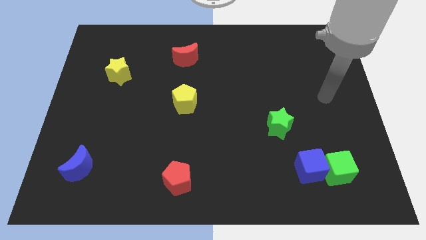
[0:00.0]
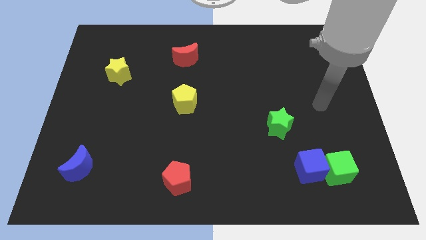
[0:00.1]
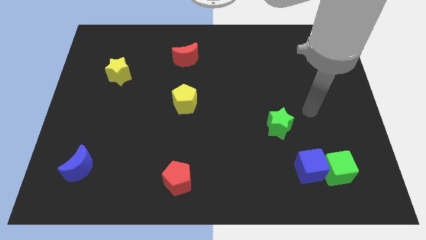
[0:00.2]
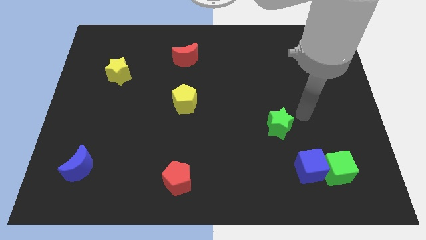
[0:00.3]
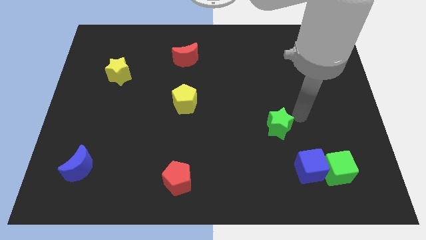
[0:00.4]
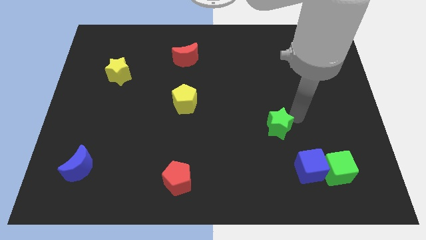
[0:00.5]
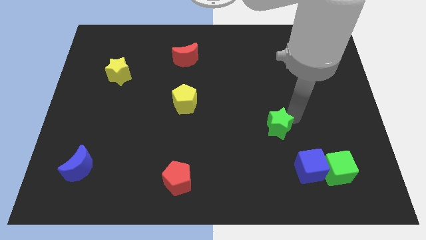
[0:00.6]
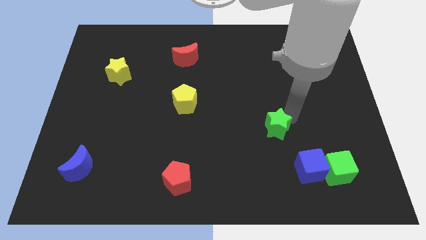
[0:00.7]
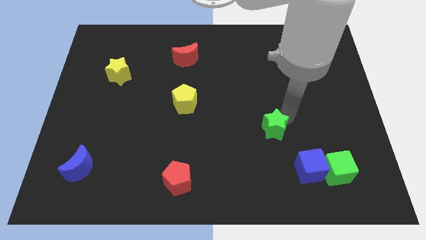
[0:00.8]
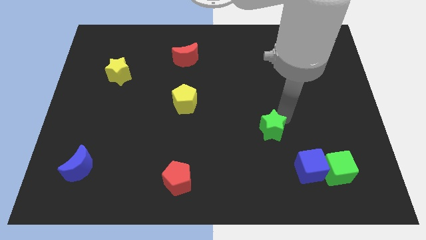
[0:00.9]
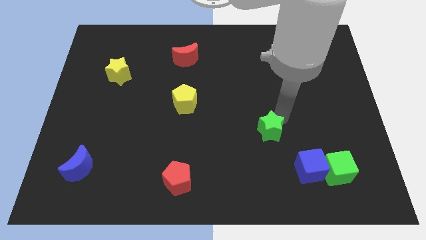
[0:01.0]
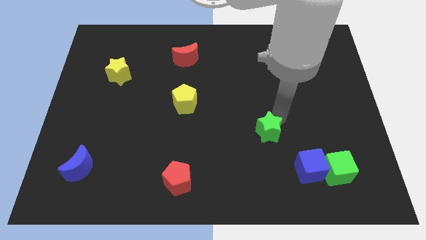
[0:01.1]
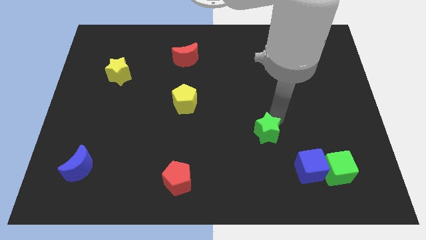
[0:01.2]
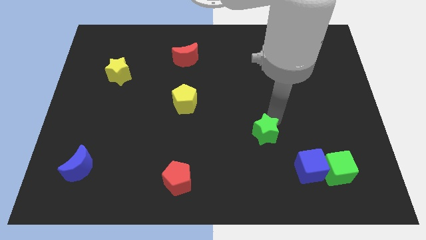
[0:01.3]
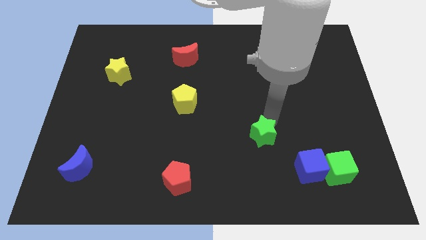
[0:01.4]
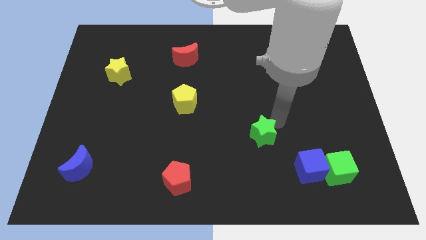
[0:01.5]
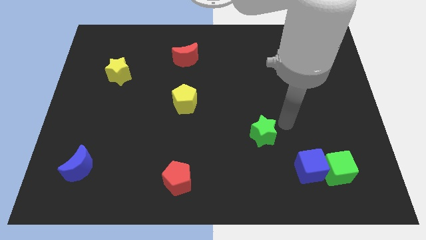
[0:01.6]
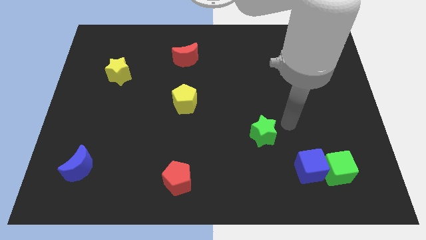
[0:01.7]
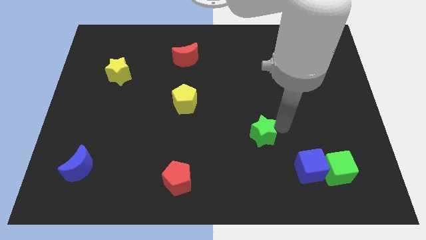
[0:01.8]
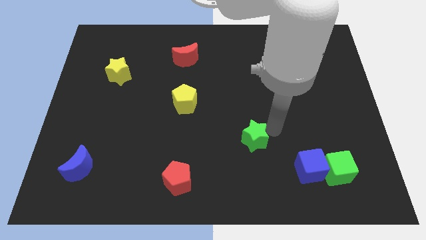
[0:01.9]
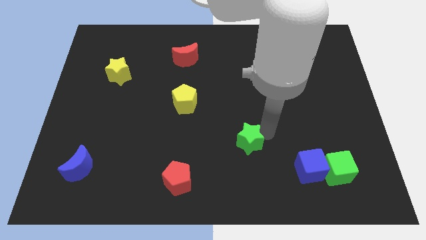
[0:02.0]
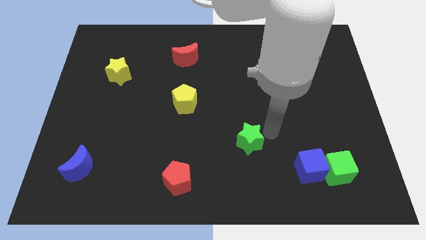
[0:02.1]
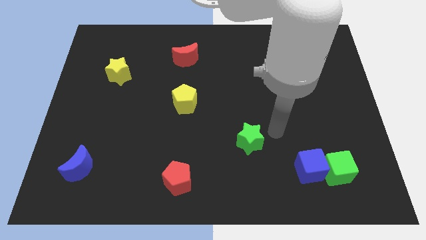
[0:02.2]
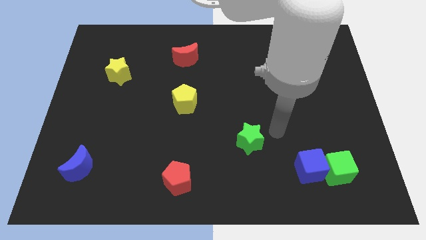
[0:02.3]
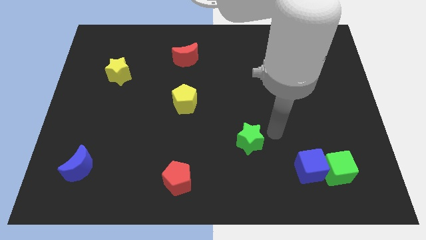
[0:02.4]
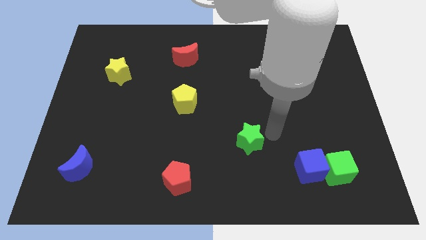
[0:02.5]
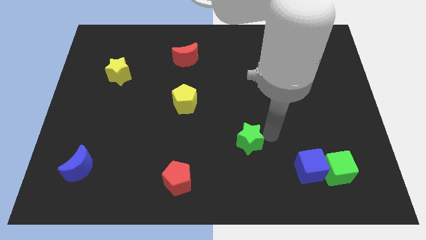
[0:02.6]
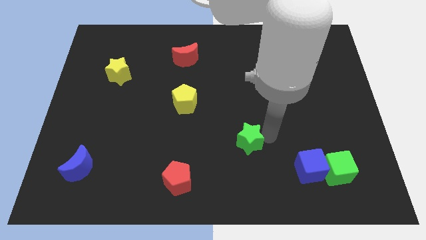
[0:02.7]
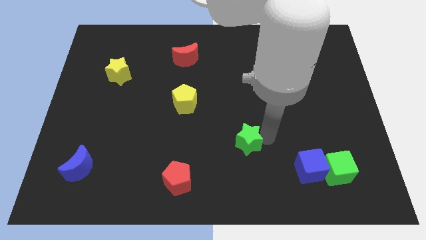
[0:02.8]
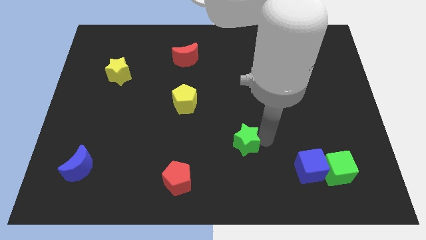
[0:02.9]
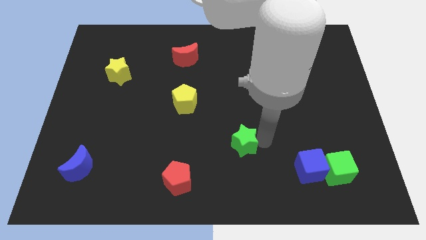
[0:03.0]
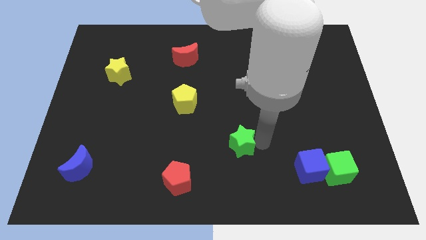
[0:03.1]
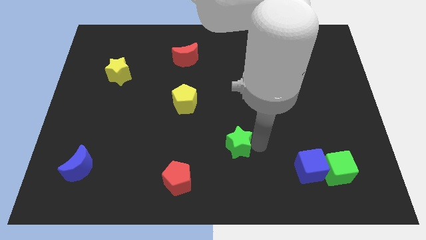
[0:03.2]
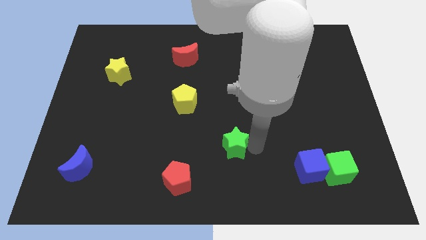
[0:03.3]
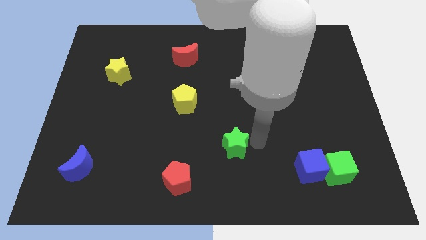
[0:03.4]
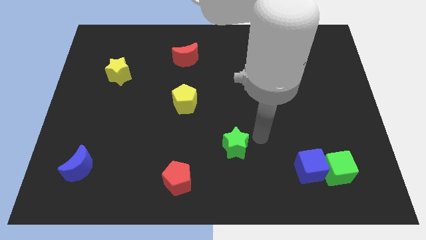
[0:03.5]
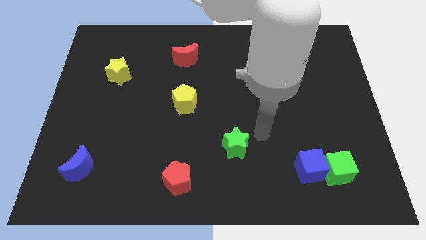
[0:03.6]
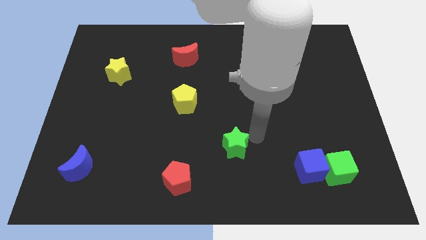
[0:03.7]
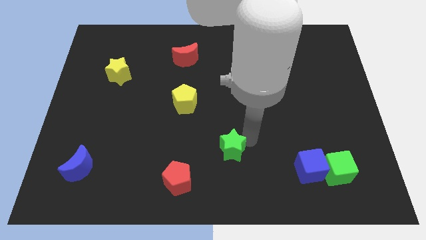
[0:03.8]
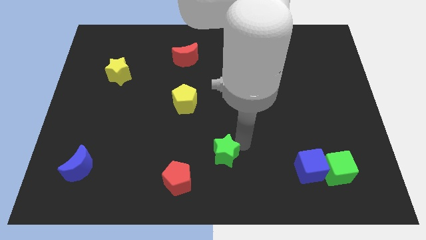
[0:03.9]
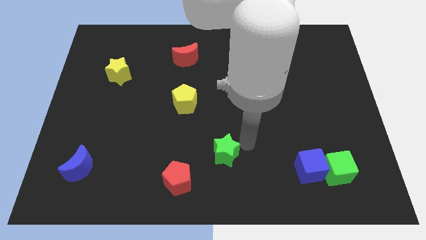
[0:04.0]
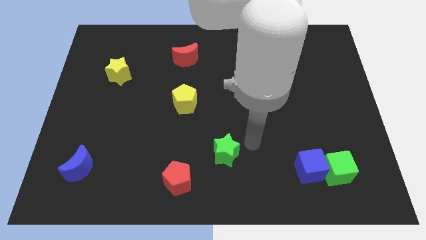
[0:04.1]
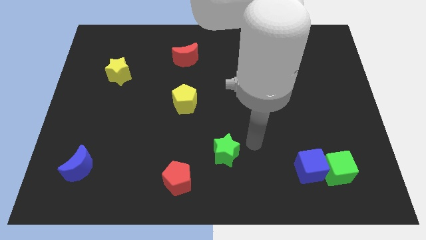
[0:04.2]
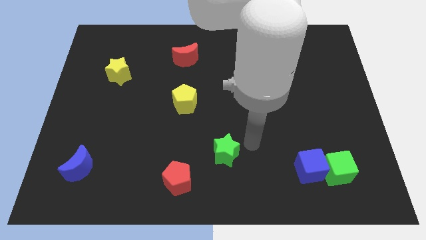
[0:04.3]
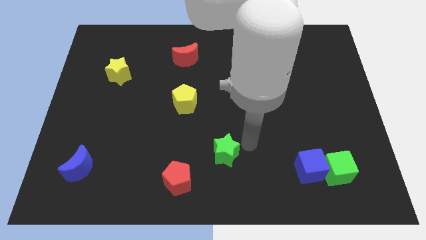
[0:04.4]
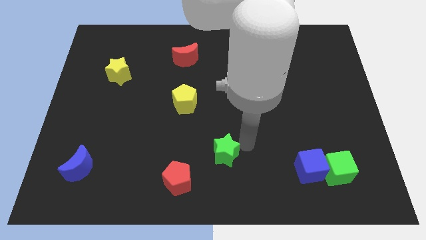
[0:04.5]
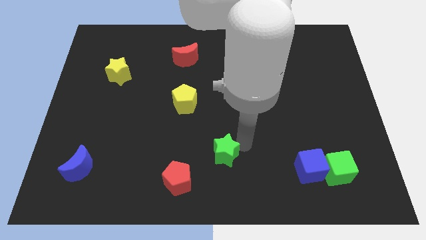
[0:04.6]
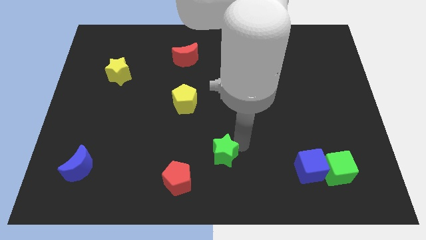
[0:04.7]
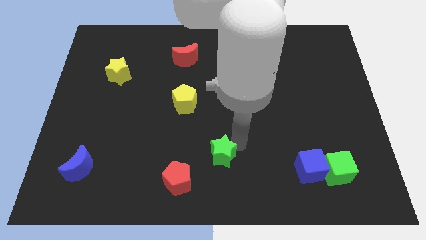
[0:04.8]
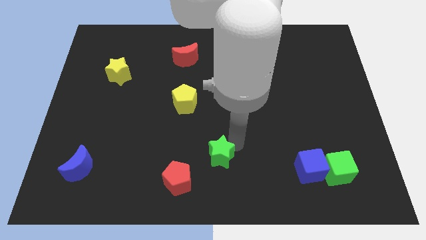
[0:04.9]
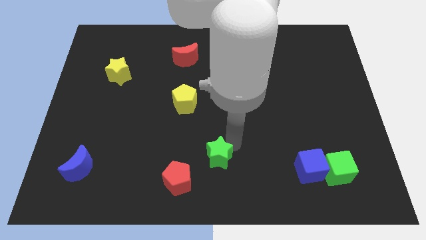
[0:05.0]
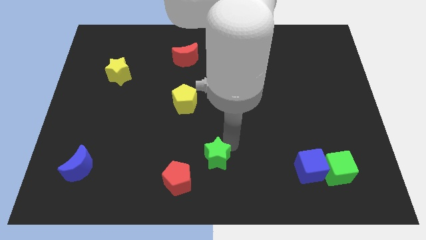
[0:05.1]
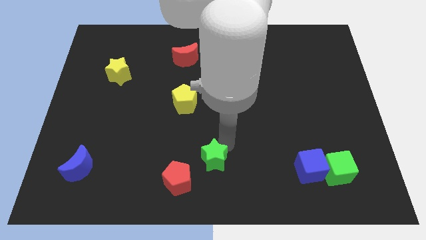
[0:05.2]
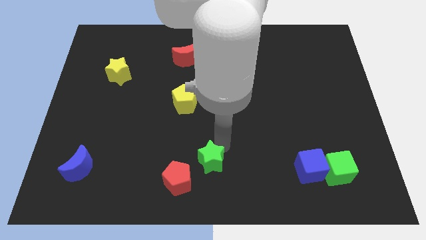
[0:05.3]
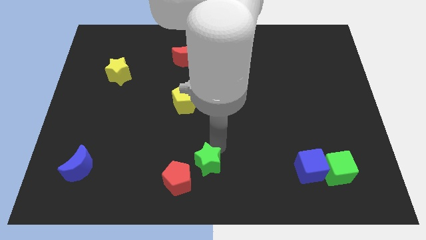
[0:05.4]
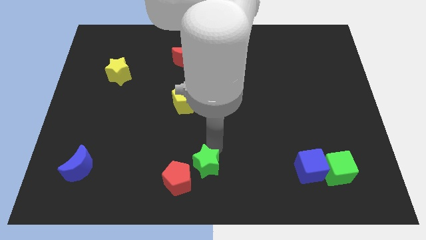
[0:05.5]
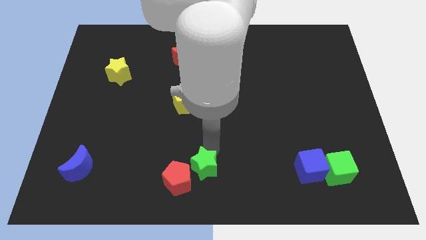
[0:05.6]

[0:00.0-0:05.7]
slide the green star to the red pentagon
